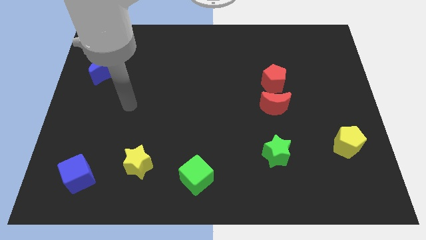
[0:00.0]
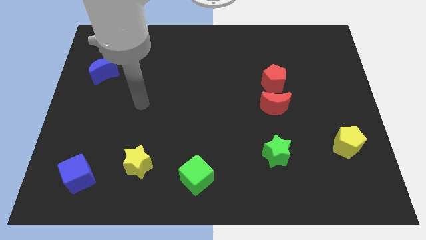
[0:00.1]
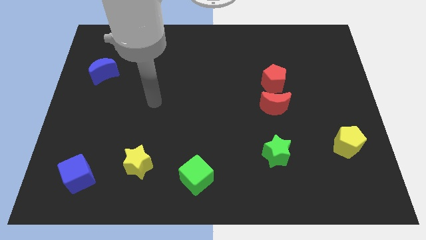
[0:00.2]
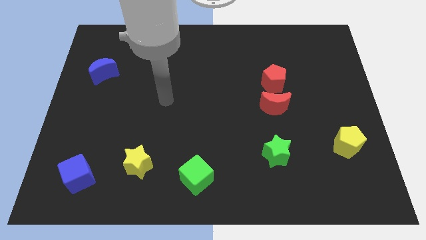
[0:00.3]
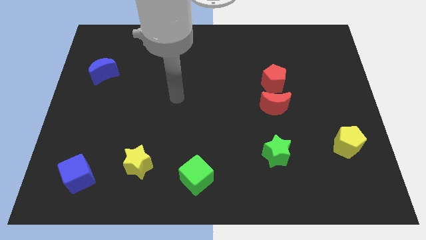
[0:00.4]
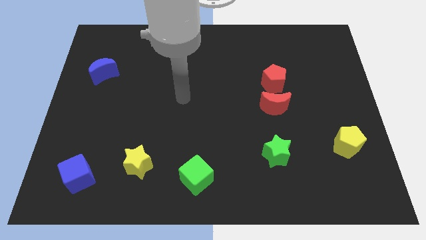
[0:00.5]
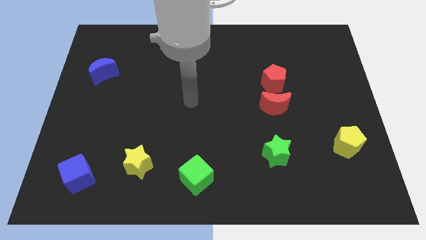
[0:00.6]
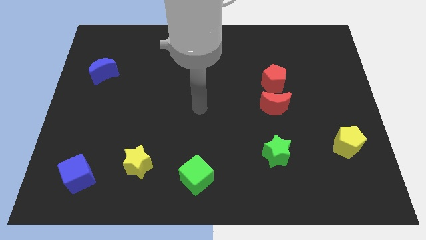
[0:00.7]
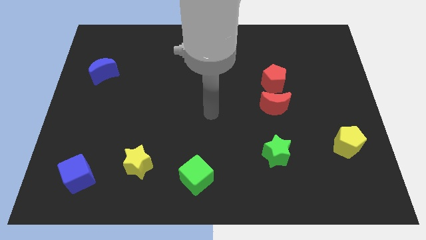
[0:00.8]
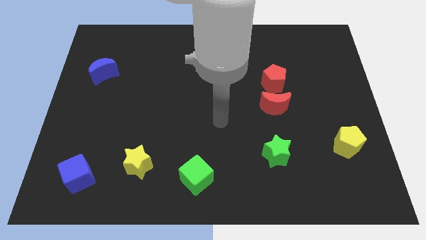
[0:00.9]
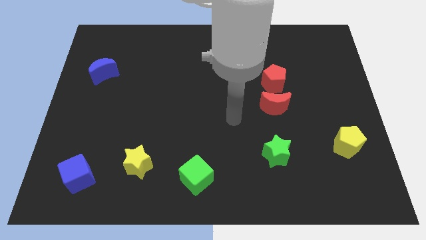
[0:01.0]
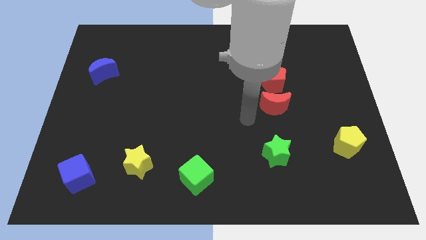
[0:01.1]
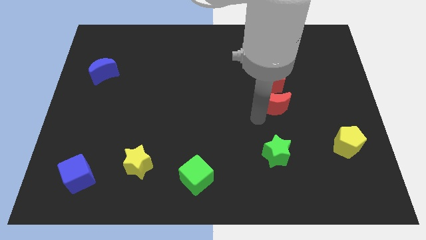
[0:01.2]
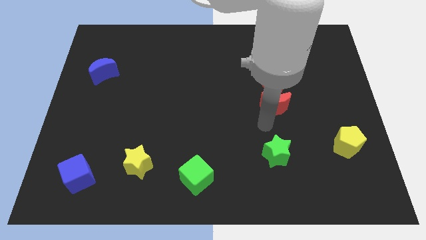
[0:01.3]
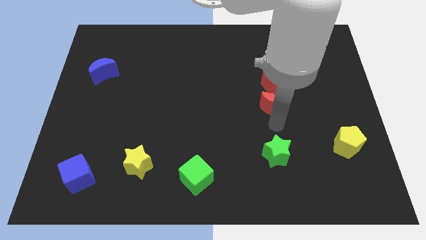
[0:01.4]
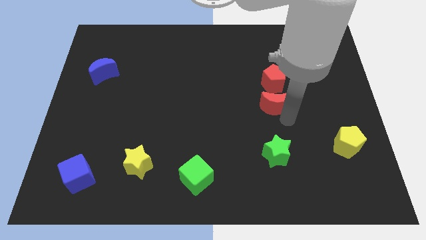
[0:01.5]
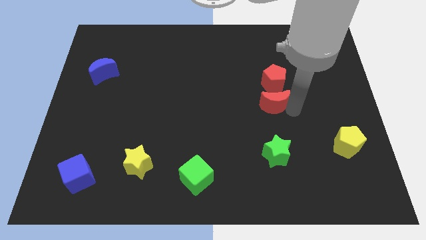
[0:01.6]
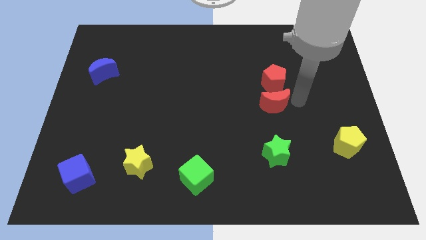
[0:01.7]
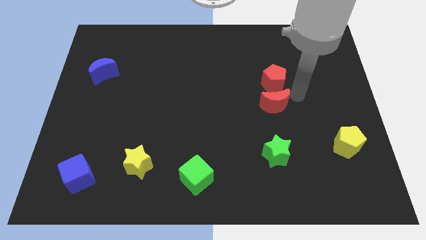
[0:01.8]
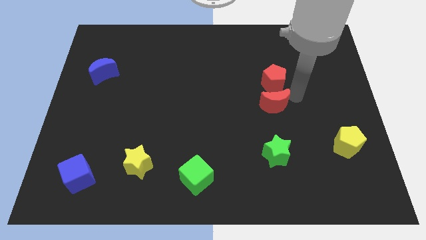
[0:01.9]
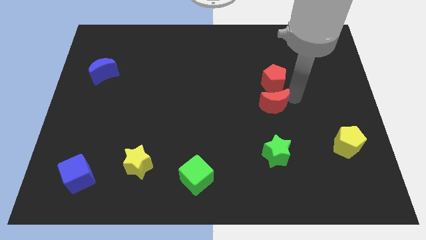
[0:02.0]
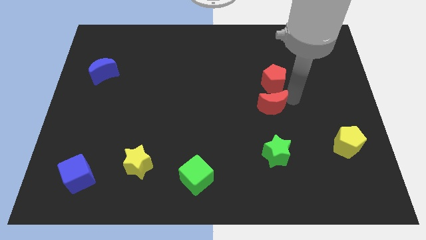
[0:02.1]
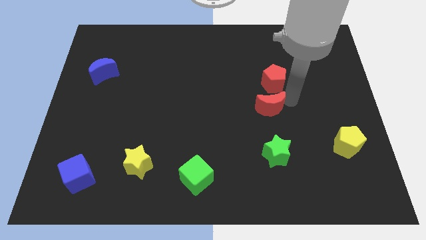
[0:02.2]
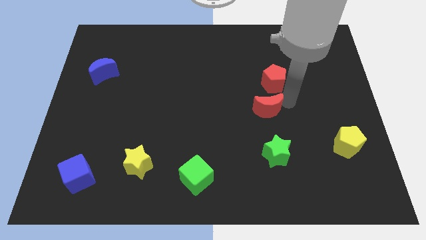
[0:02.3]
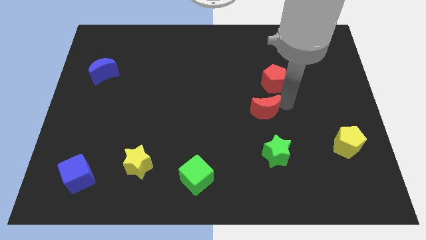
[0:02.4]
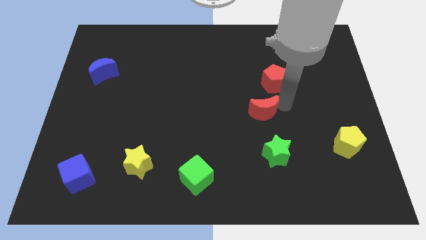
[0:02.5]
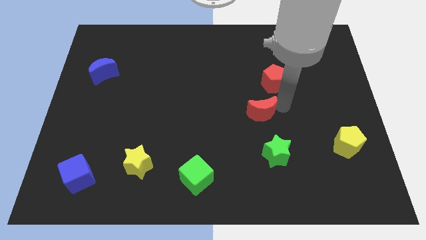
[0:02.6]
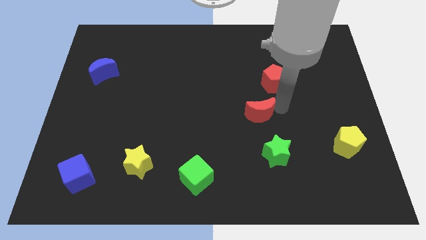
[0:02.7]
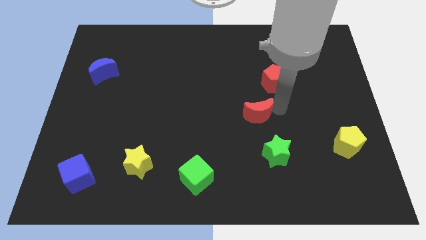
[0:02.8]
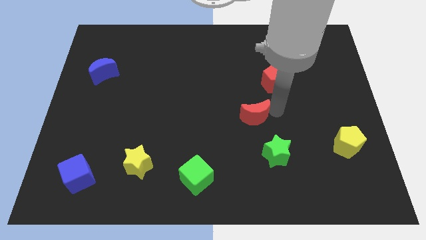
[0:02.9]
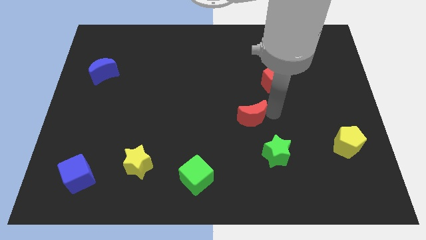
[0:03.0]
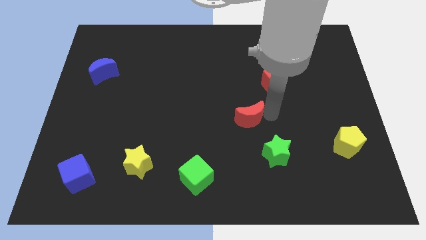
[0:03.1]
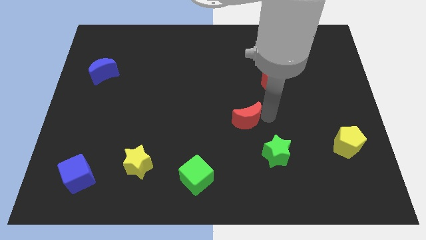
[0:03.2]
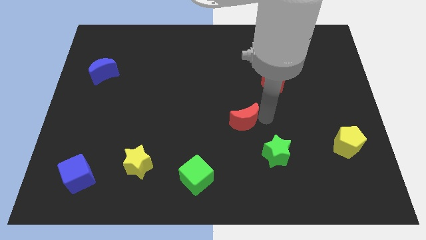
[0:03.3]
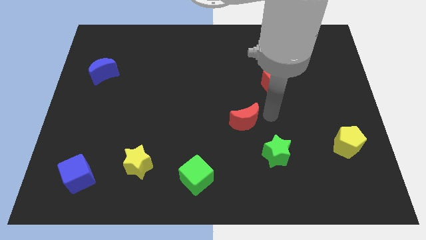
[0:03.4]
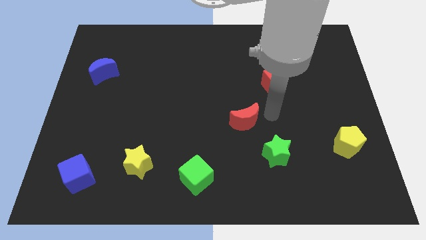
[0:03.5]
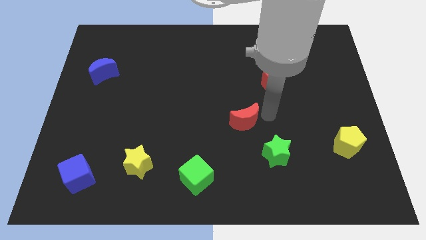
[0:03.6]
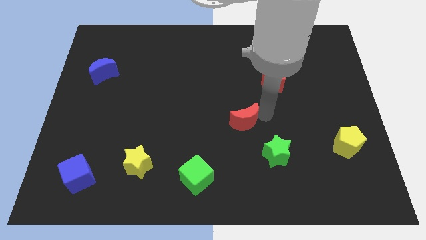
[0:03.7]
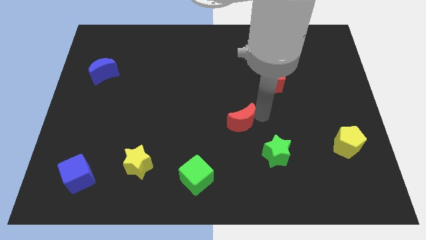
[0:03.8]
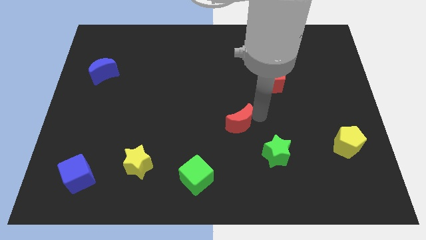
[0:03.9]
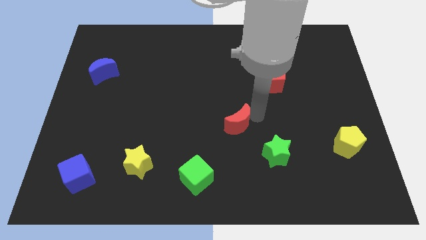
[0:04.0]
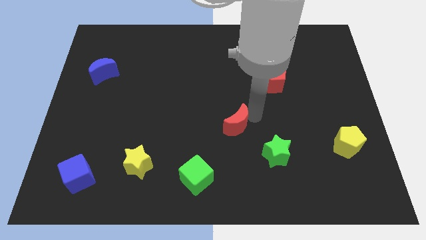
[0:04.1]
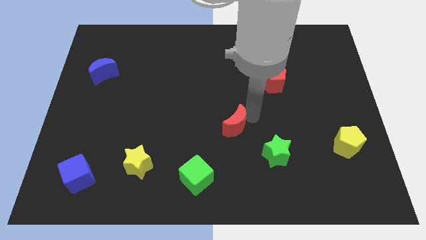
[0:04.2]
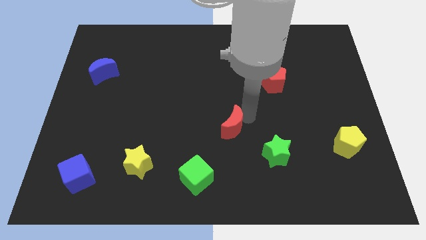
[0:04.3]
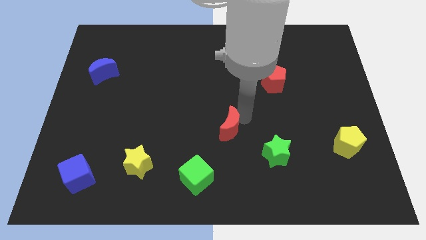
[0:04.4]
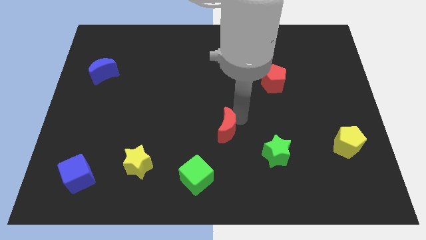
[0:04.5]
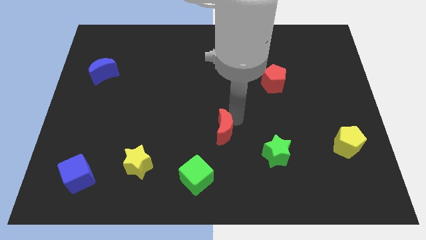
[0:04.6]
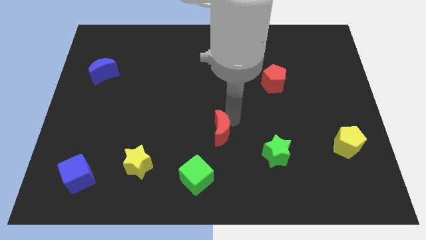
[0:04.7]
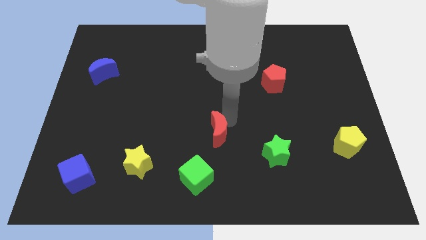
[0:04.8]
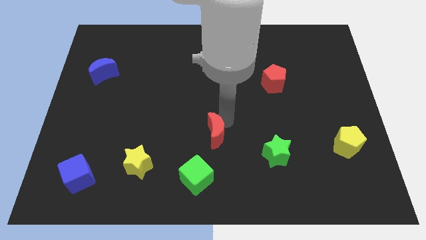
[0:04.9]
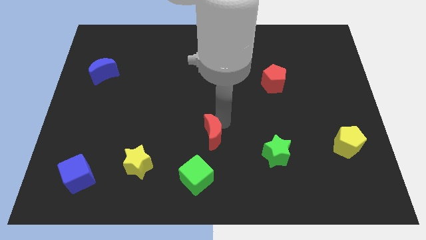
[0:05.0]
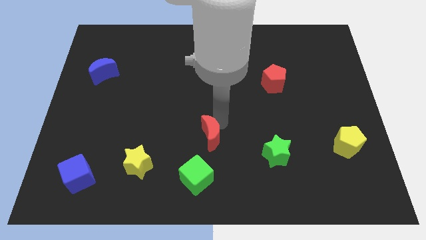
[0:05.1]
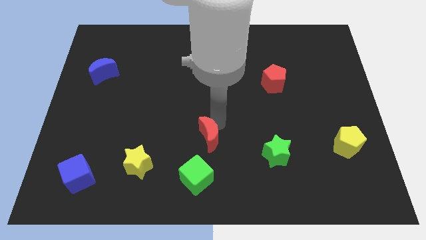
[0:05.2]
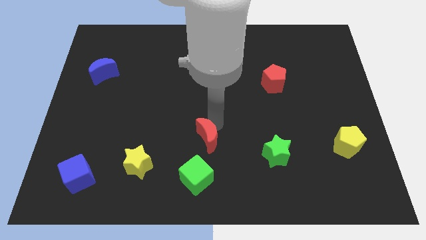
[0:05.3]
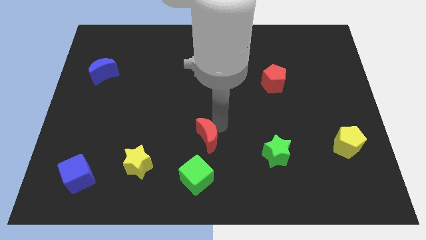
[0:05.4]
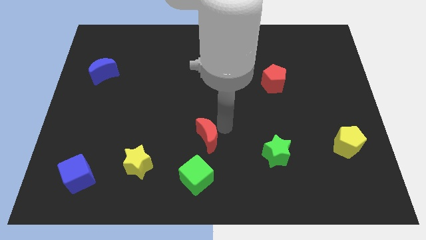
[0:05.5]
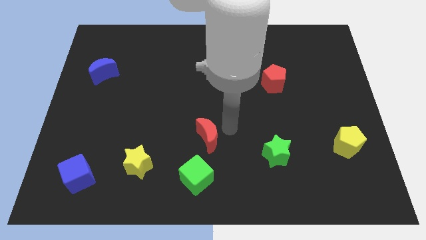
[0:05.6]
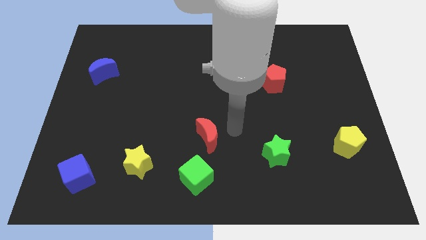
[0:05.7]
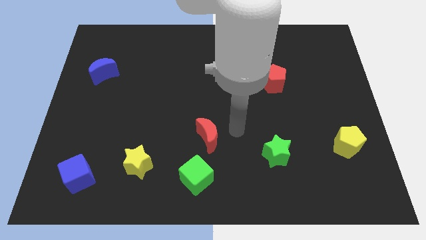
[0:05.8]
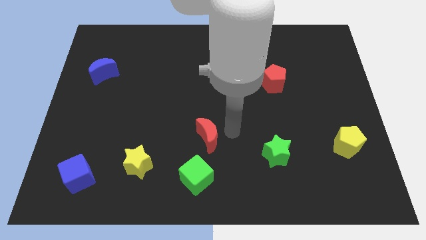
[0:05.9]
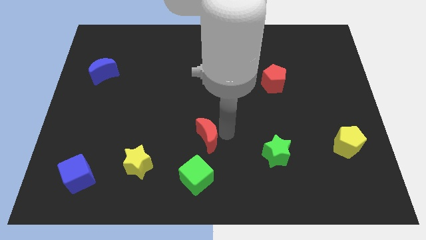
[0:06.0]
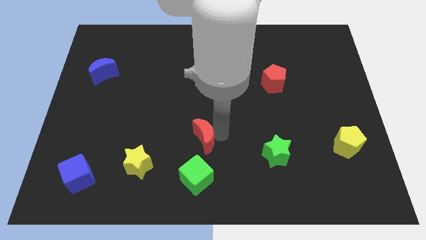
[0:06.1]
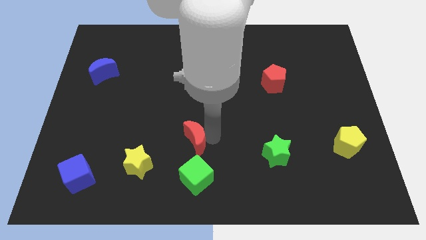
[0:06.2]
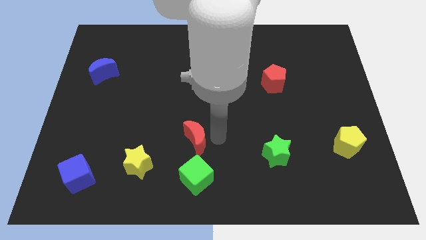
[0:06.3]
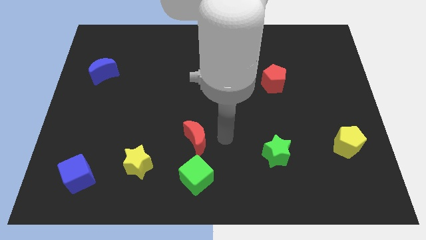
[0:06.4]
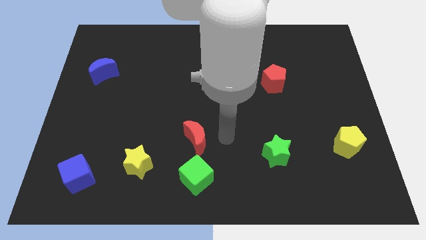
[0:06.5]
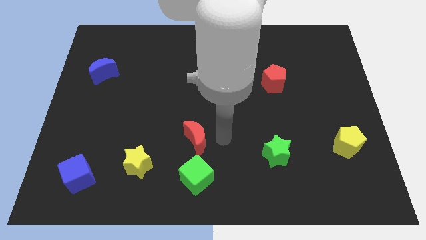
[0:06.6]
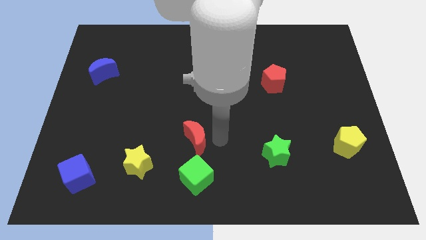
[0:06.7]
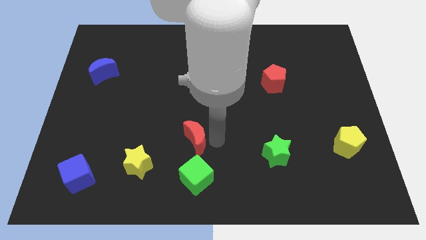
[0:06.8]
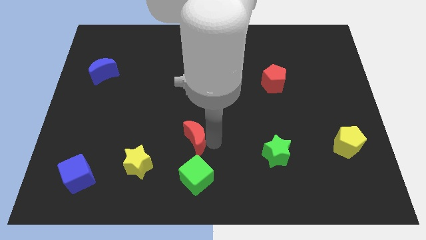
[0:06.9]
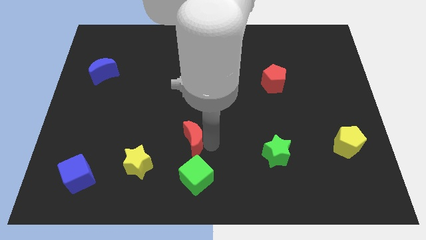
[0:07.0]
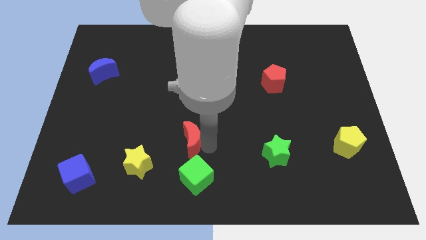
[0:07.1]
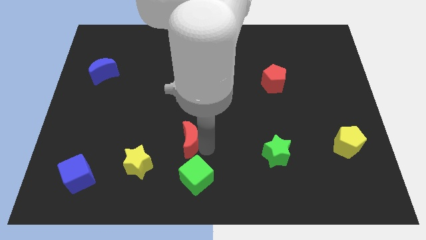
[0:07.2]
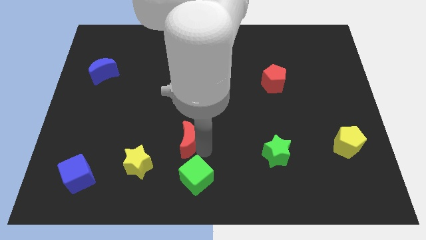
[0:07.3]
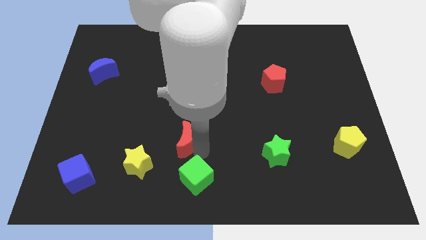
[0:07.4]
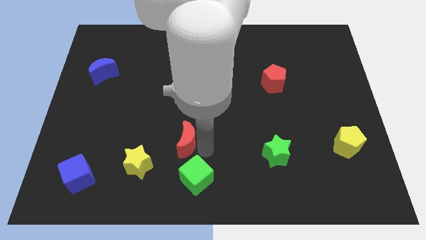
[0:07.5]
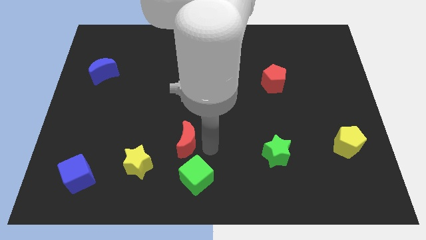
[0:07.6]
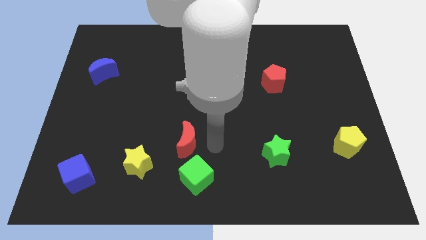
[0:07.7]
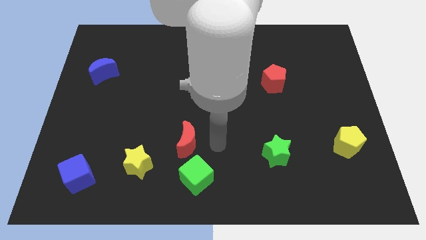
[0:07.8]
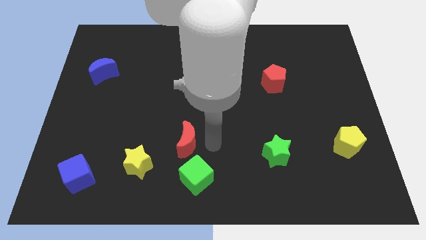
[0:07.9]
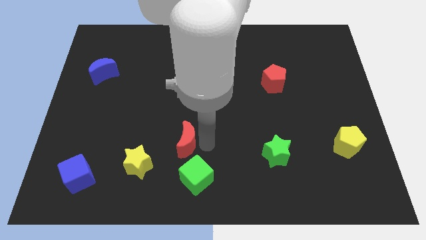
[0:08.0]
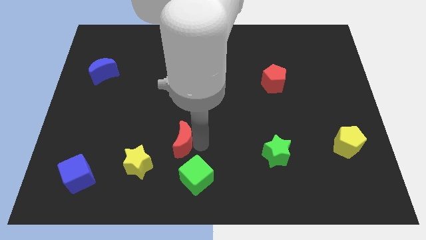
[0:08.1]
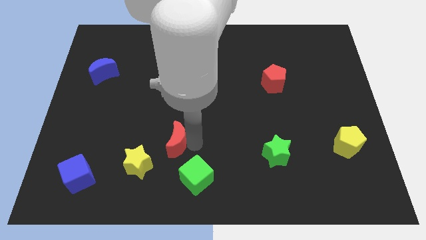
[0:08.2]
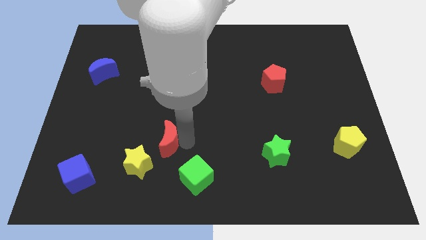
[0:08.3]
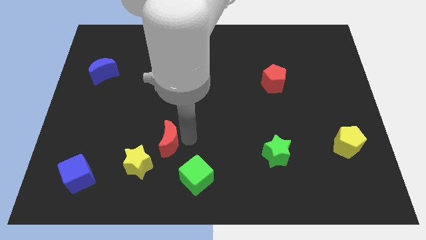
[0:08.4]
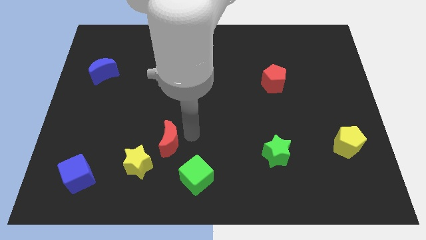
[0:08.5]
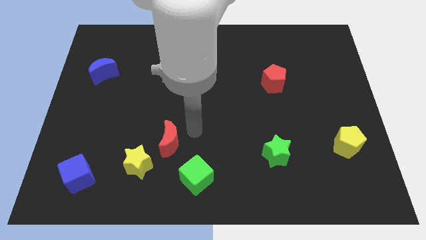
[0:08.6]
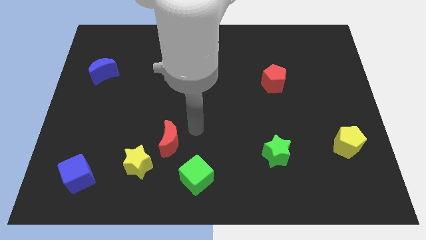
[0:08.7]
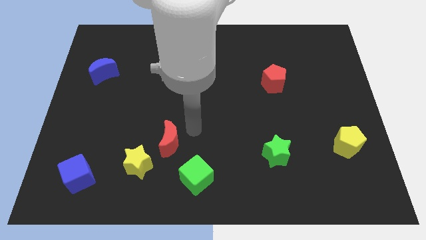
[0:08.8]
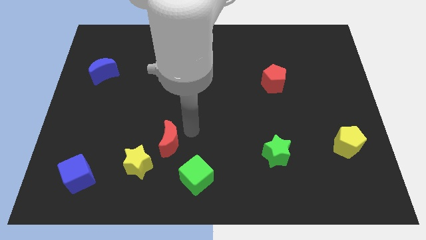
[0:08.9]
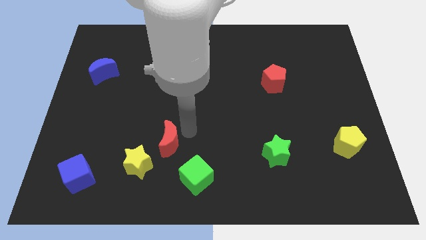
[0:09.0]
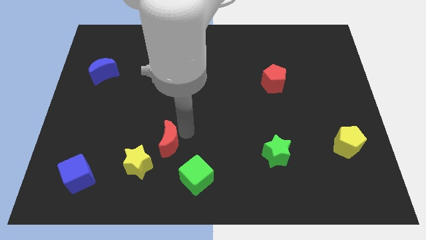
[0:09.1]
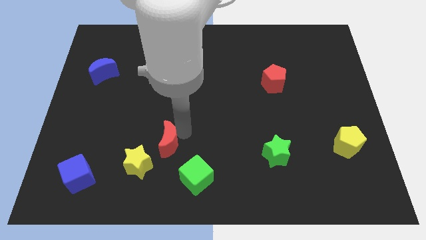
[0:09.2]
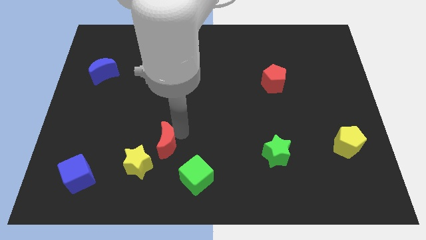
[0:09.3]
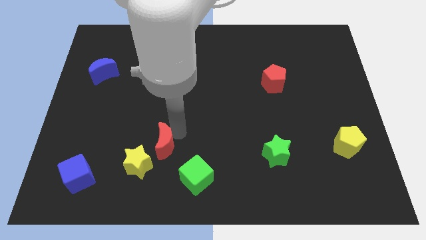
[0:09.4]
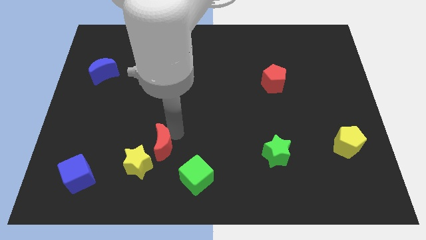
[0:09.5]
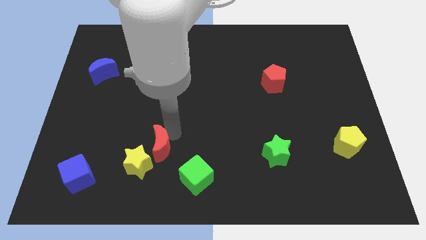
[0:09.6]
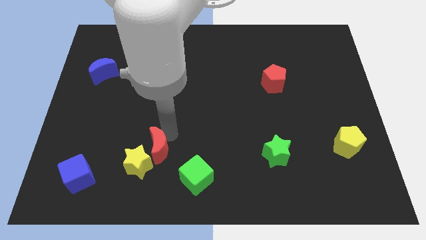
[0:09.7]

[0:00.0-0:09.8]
put the red moon close to the yellow star
